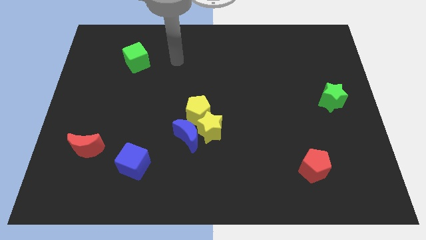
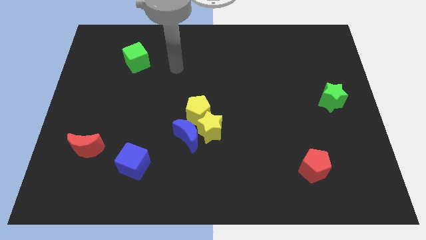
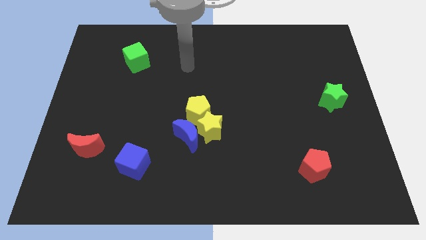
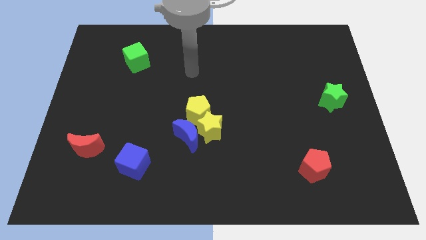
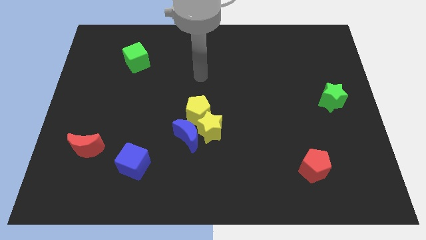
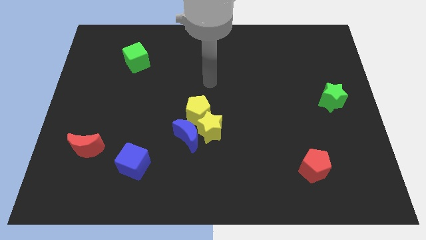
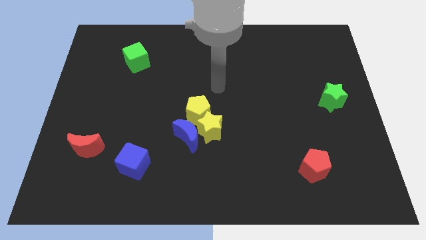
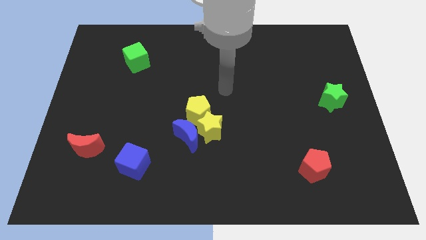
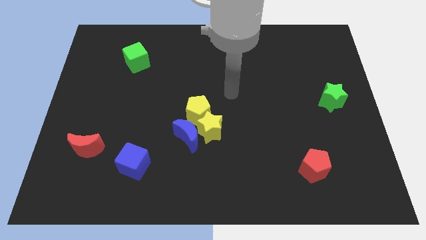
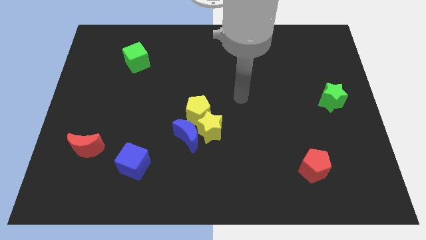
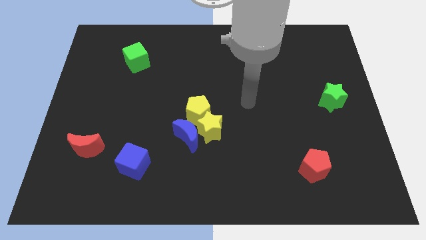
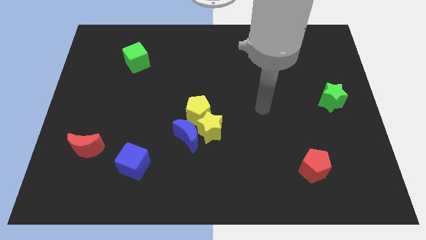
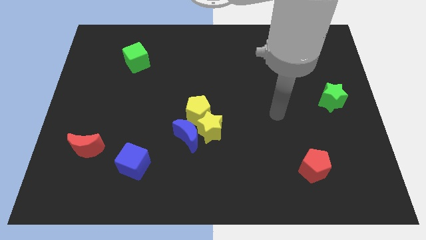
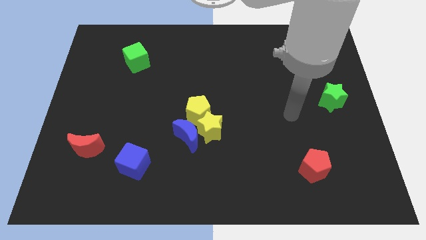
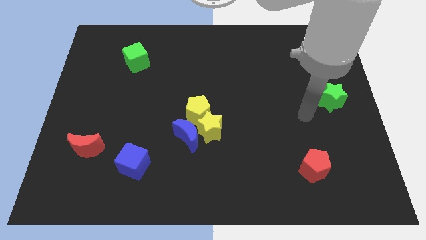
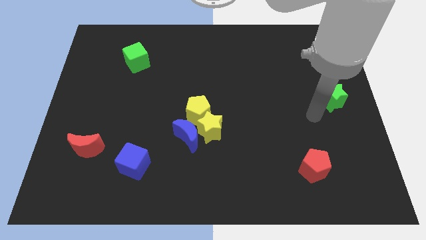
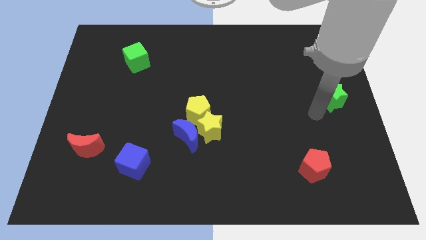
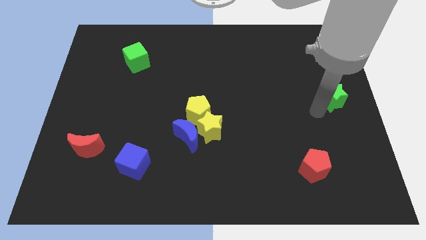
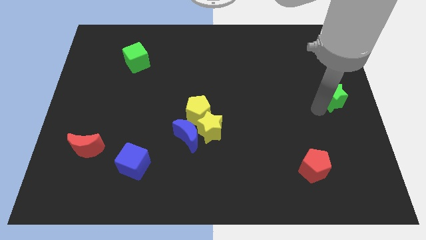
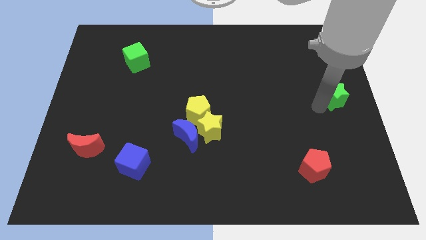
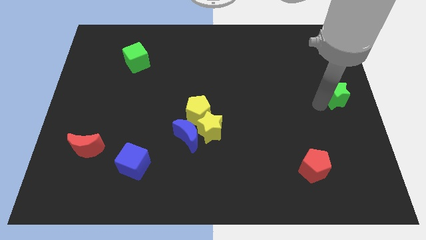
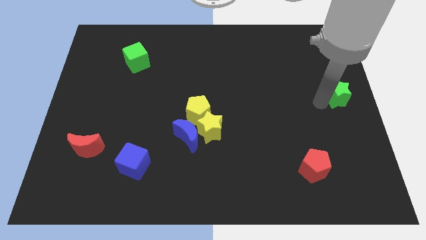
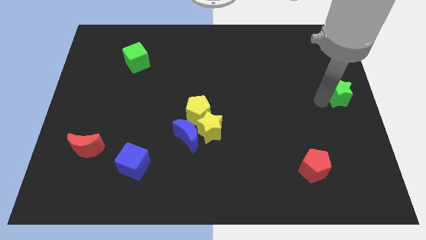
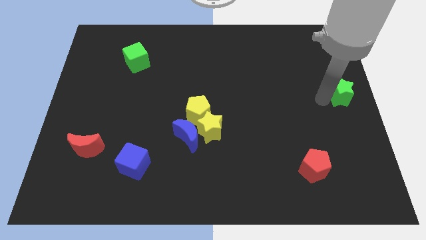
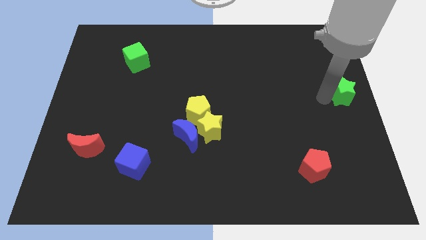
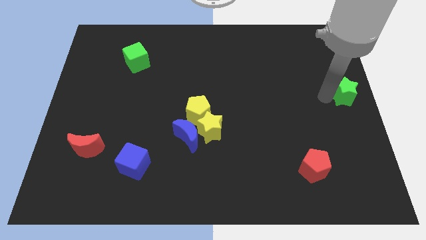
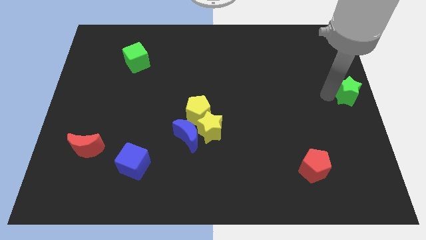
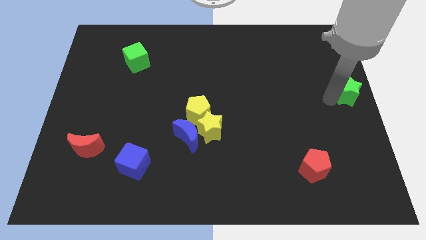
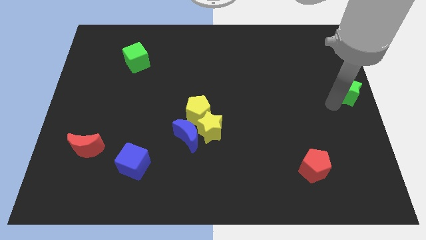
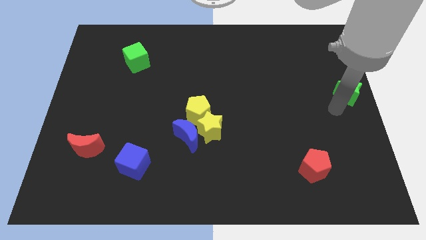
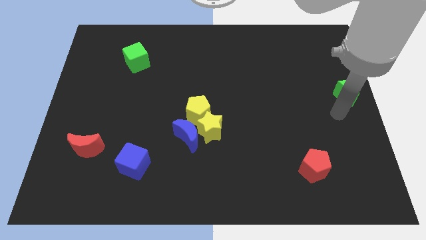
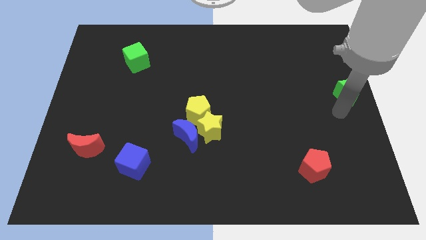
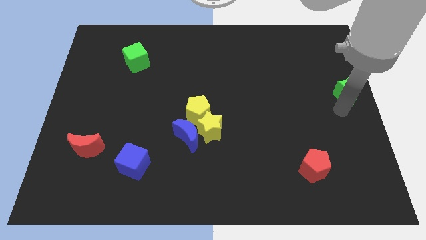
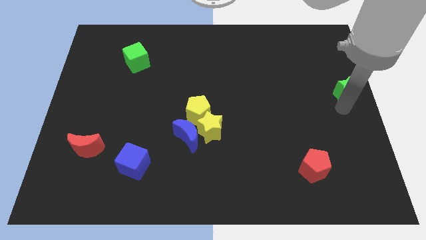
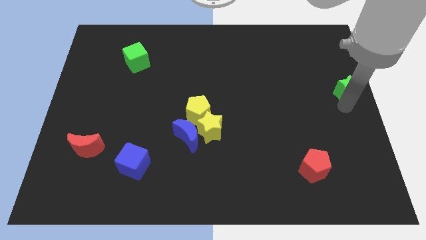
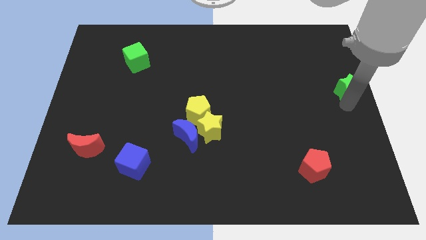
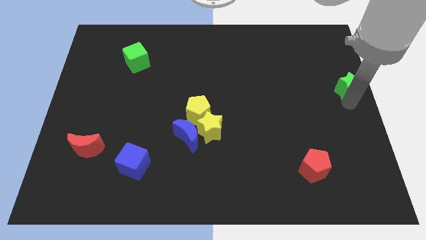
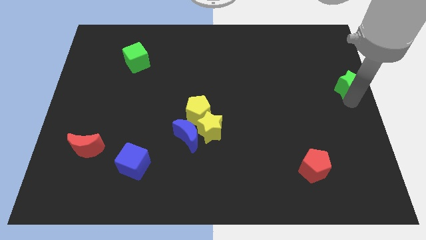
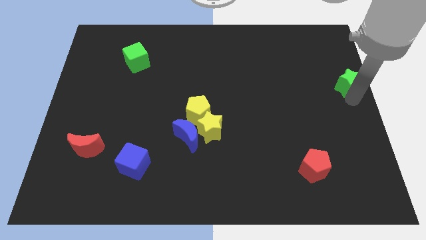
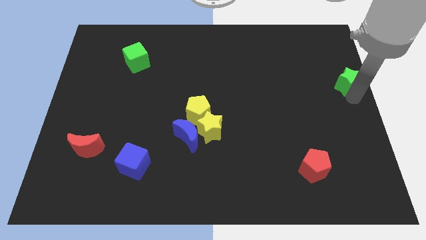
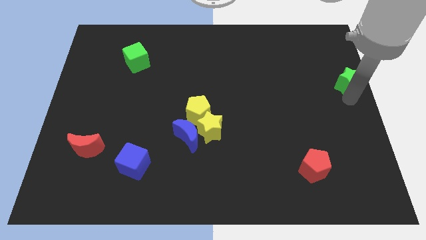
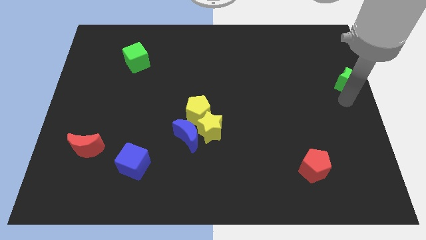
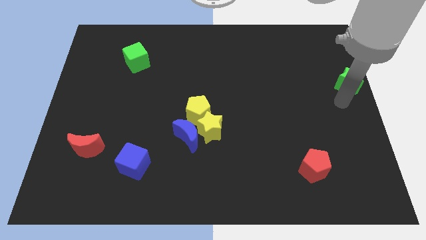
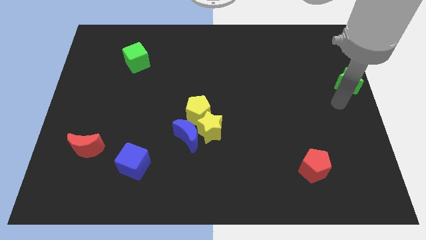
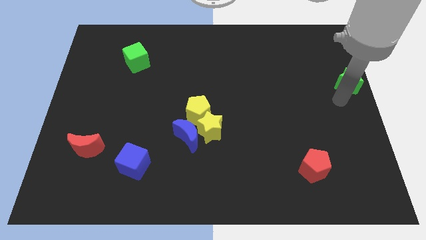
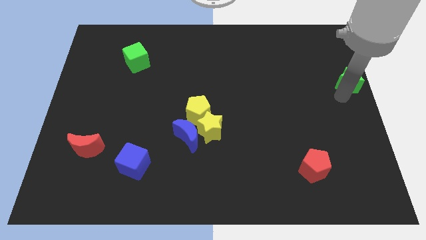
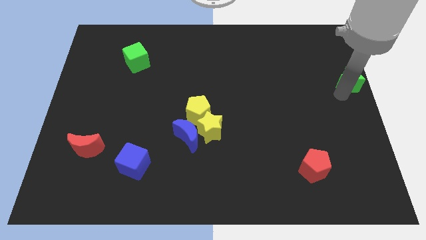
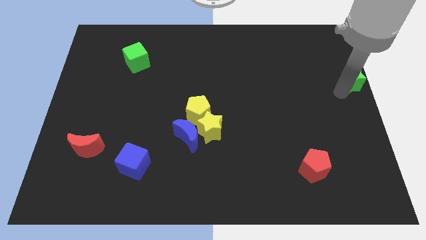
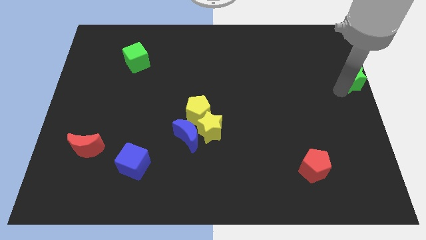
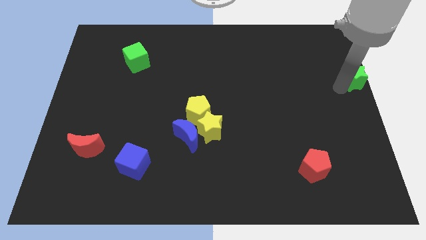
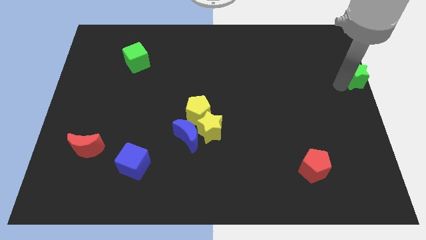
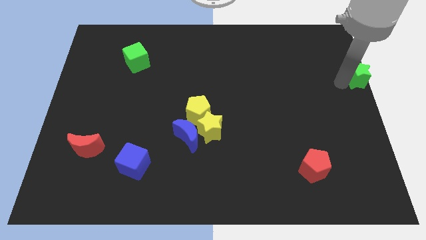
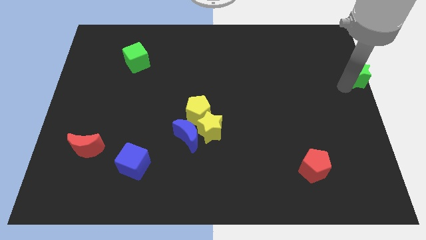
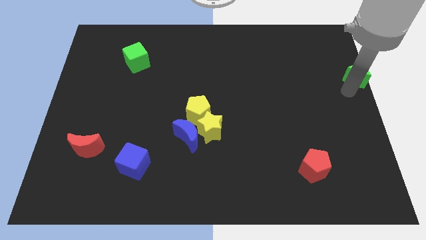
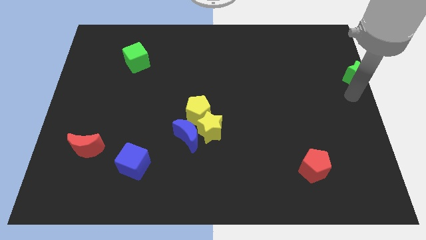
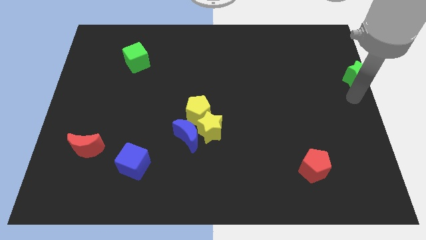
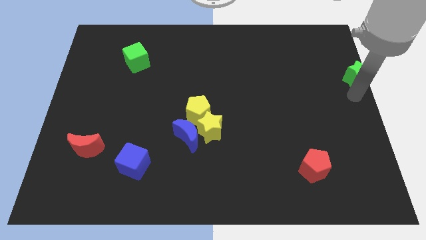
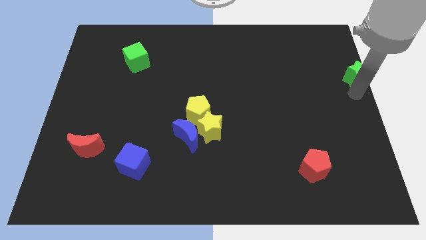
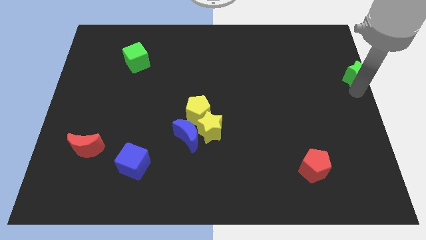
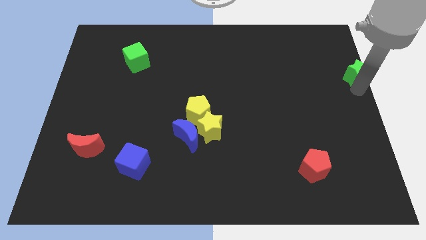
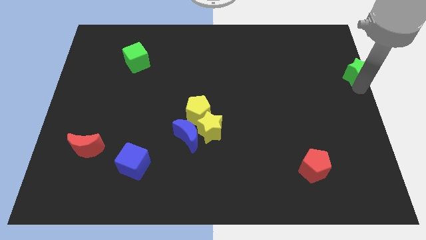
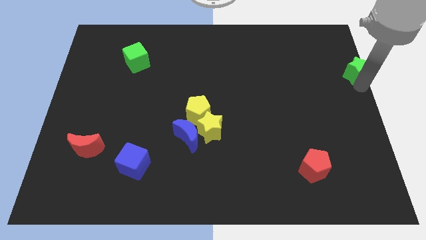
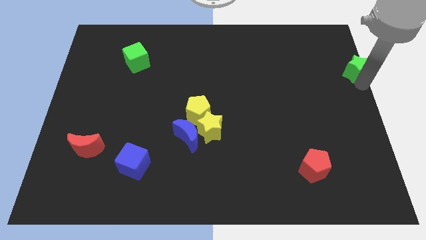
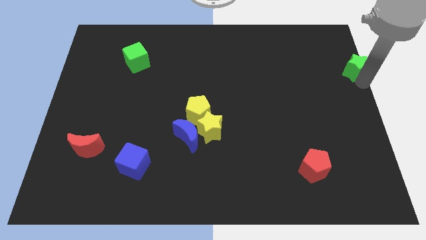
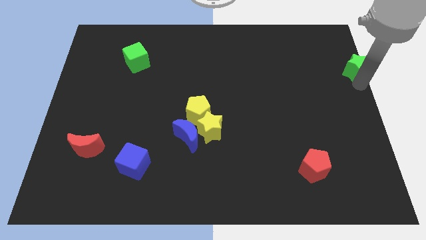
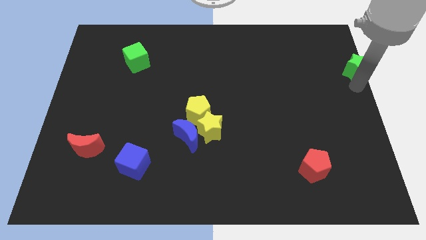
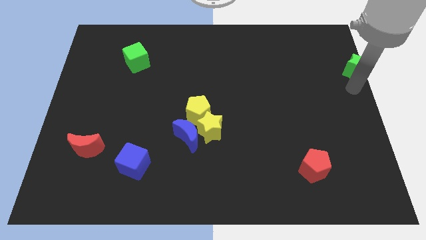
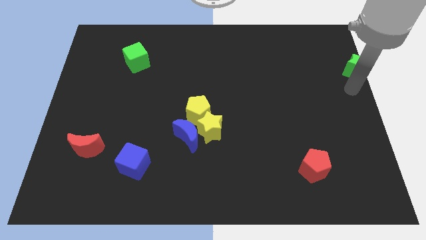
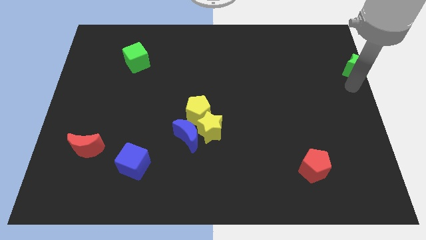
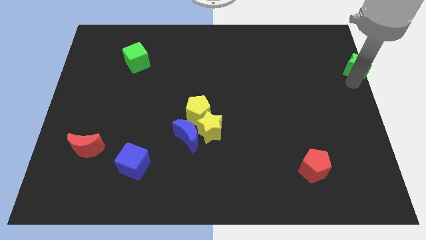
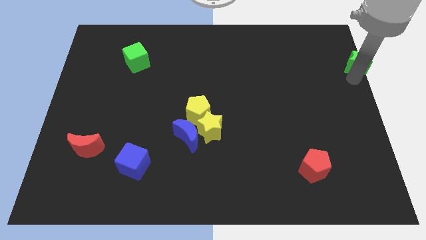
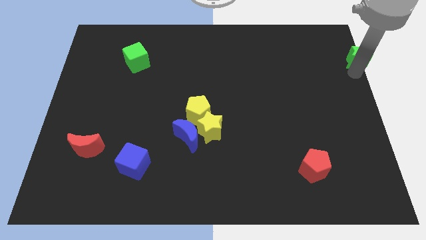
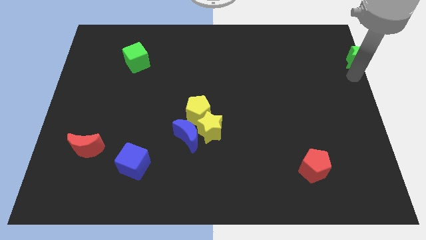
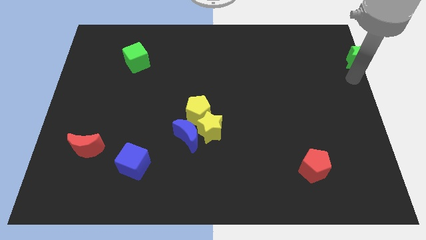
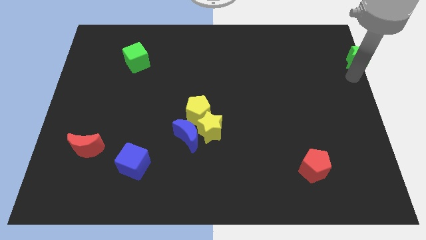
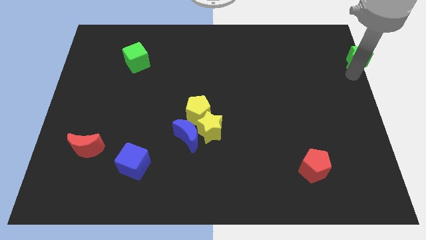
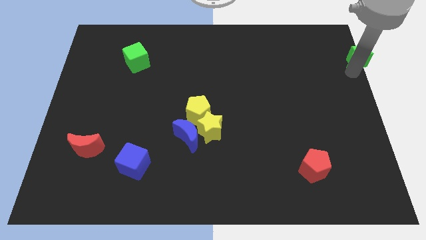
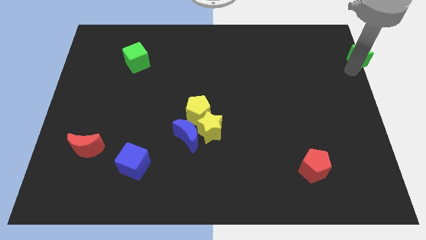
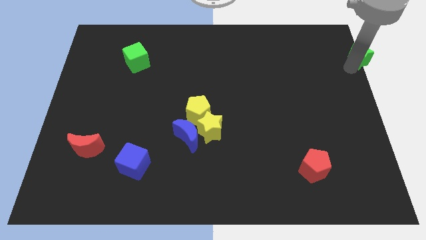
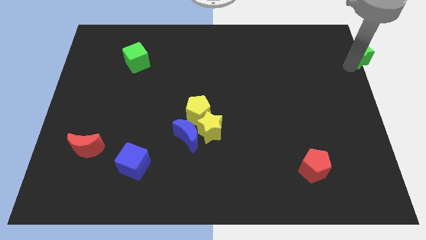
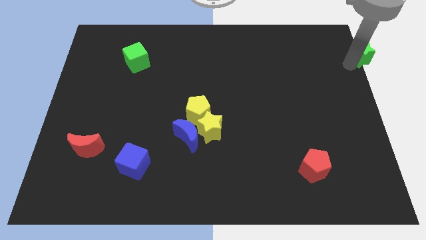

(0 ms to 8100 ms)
move the green star to the top right
